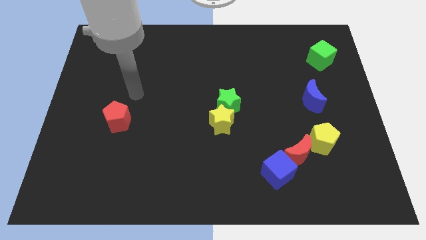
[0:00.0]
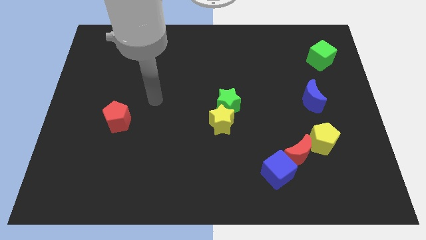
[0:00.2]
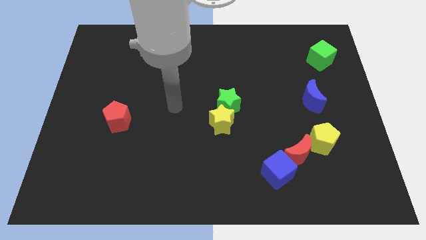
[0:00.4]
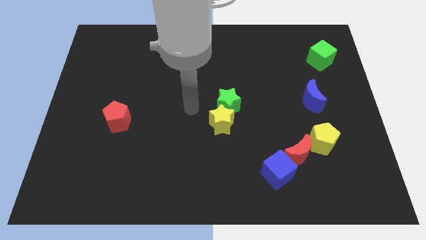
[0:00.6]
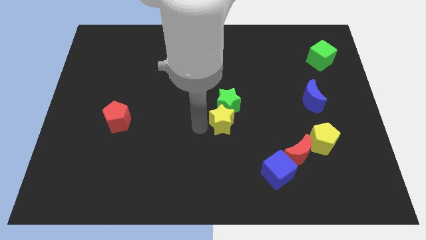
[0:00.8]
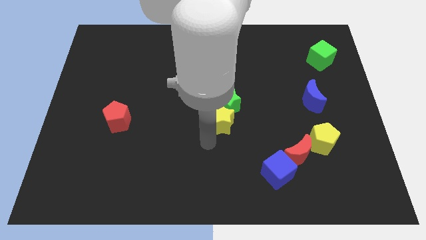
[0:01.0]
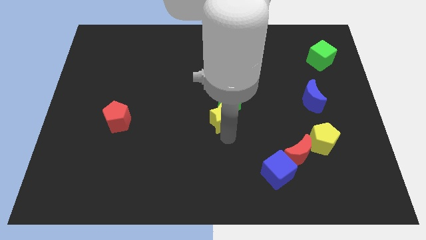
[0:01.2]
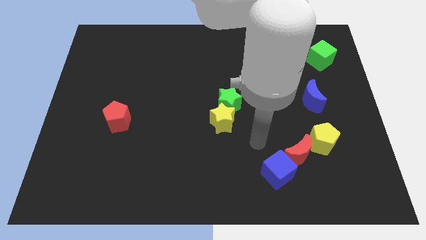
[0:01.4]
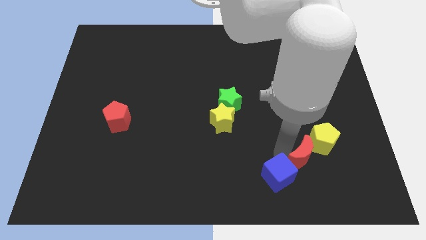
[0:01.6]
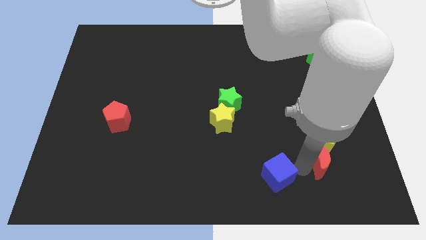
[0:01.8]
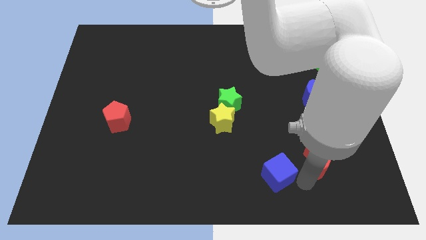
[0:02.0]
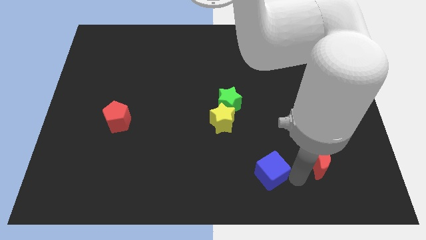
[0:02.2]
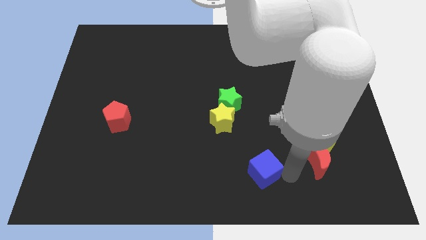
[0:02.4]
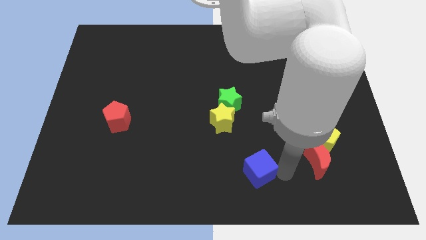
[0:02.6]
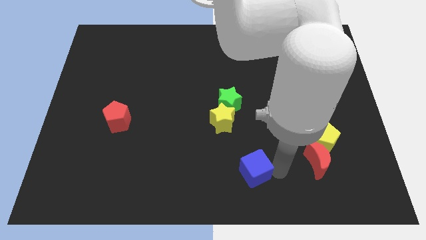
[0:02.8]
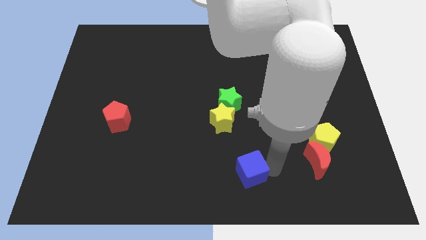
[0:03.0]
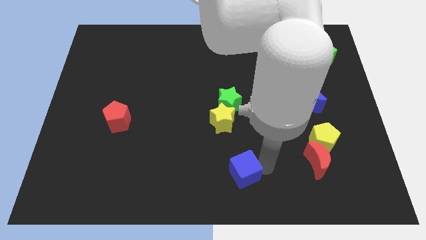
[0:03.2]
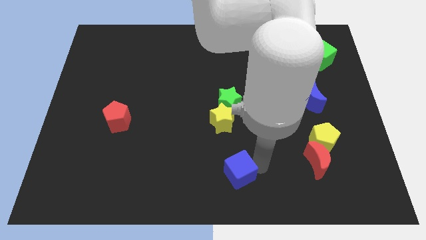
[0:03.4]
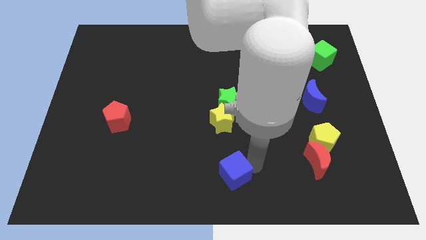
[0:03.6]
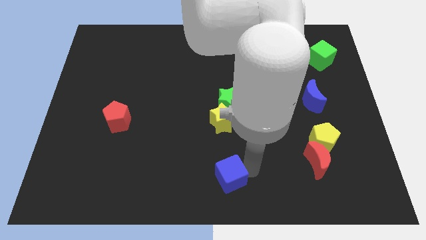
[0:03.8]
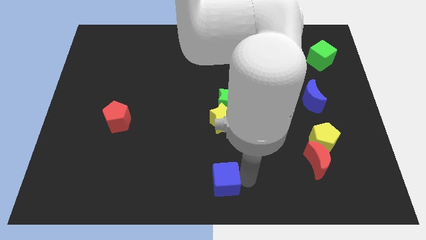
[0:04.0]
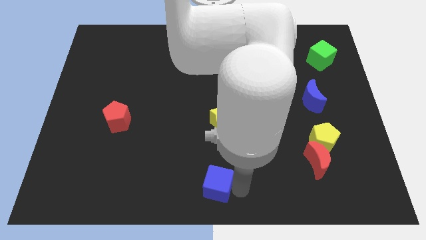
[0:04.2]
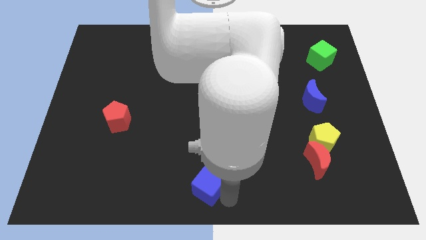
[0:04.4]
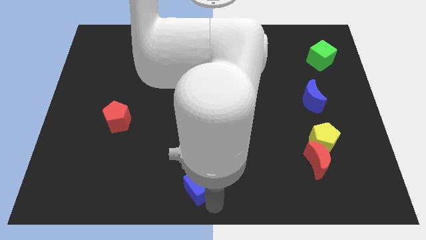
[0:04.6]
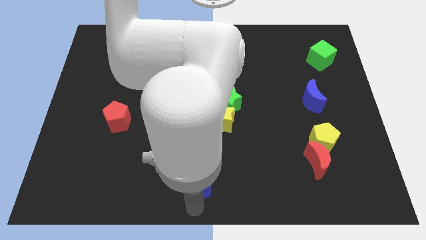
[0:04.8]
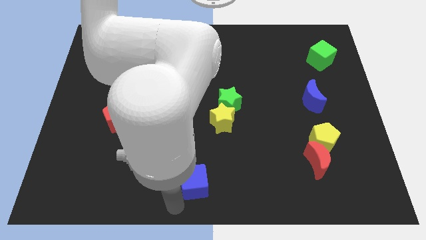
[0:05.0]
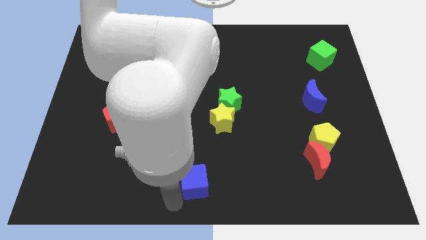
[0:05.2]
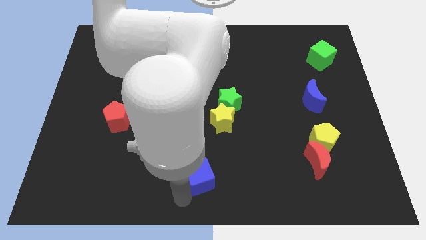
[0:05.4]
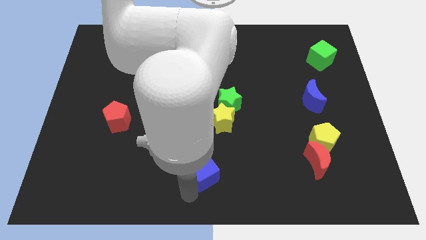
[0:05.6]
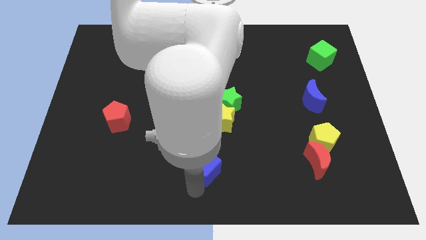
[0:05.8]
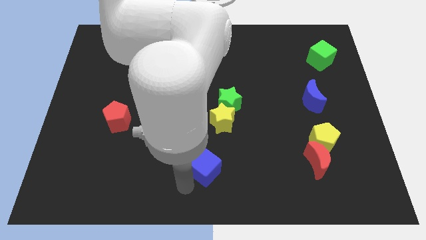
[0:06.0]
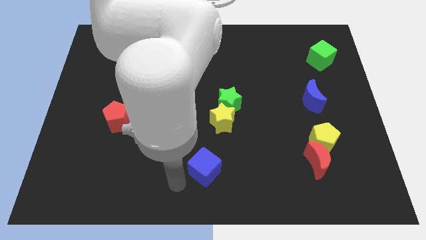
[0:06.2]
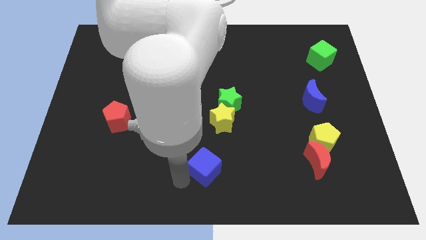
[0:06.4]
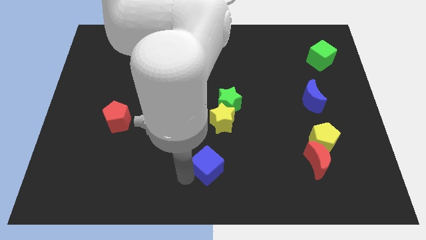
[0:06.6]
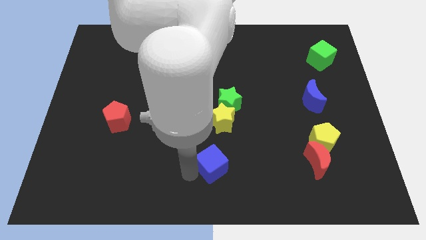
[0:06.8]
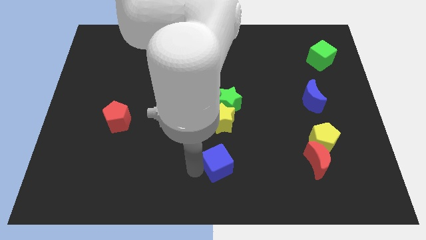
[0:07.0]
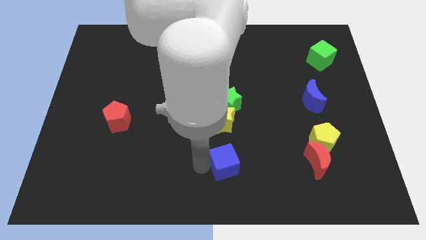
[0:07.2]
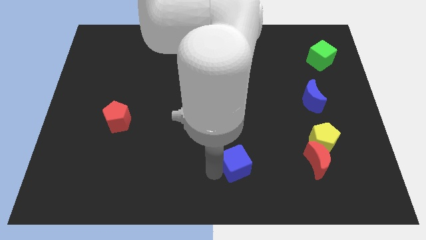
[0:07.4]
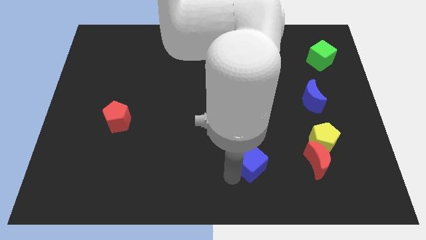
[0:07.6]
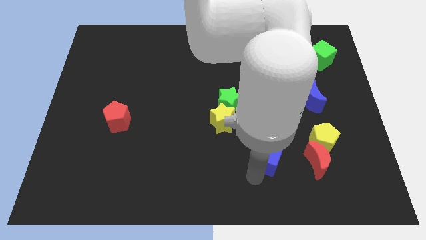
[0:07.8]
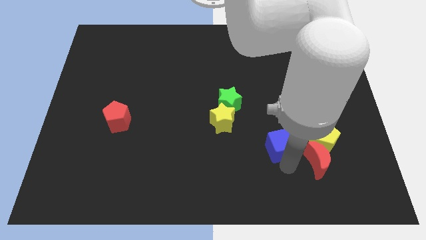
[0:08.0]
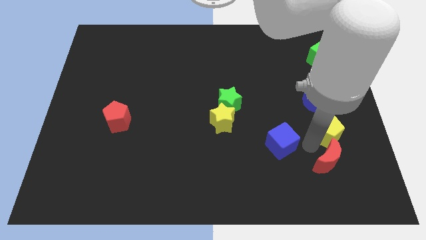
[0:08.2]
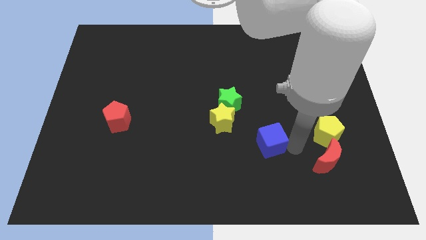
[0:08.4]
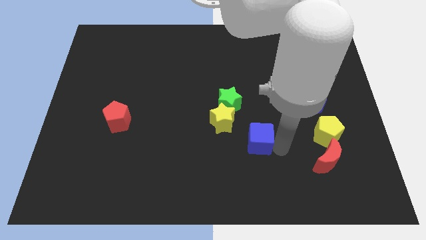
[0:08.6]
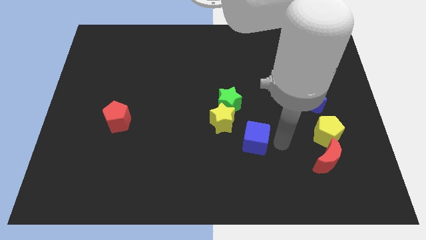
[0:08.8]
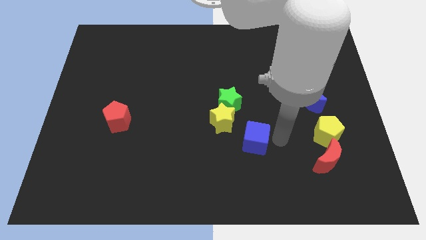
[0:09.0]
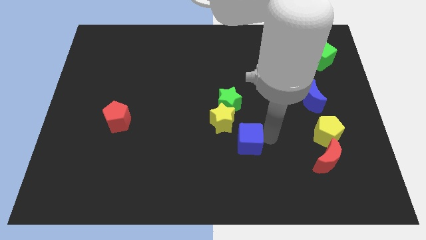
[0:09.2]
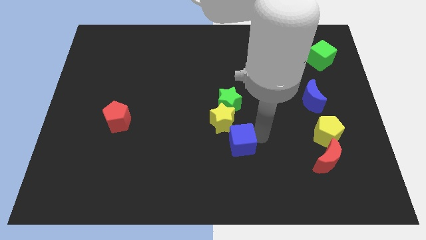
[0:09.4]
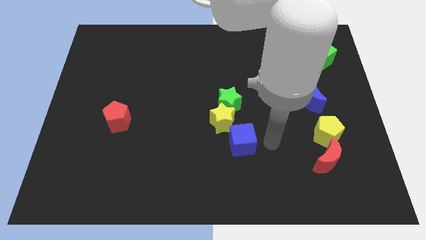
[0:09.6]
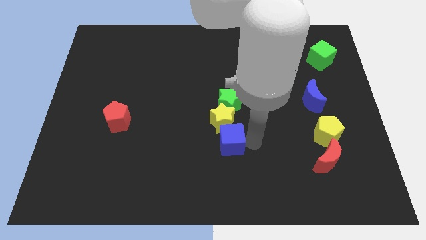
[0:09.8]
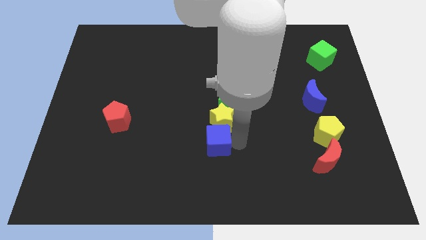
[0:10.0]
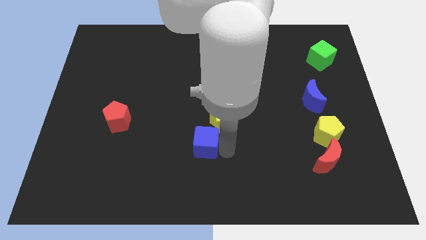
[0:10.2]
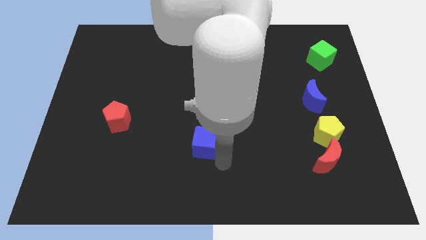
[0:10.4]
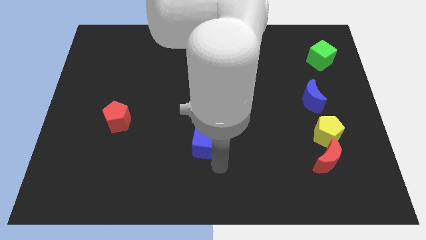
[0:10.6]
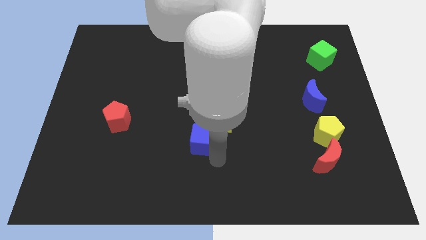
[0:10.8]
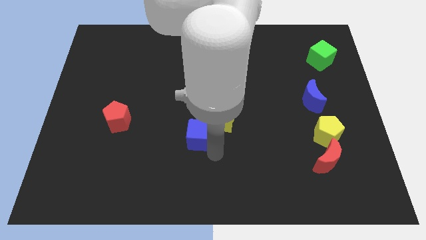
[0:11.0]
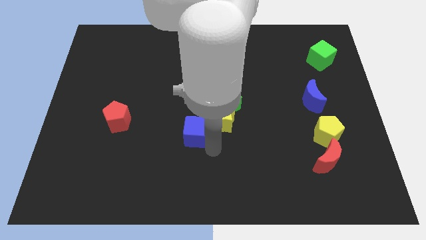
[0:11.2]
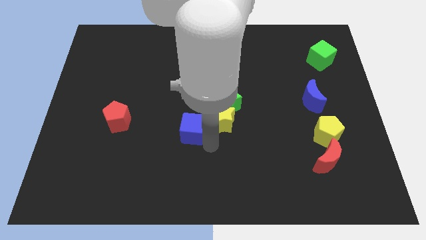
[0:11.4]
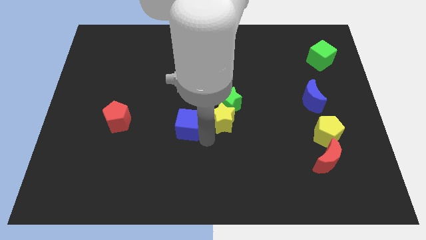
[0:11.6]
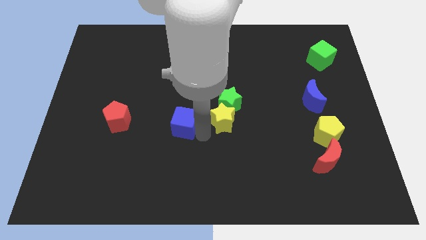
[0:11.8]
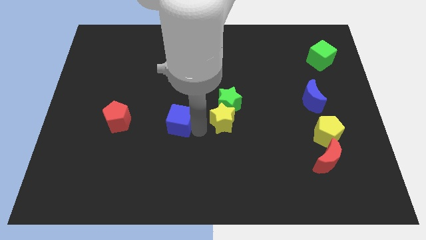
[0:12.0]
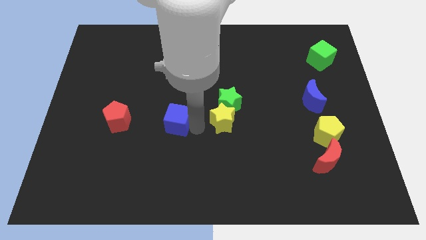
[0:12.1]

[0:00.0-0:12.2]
move the blue cube to the left of the green star

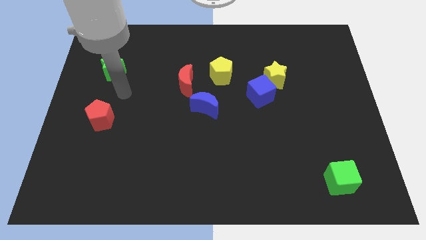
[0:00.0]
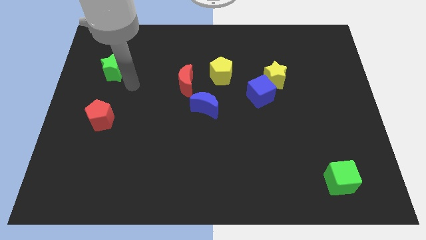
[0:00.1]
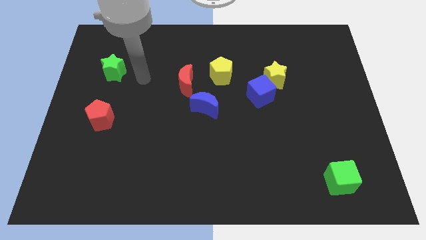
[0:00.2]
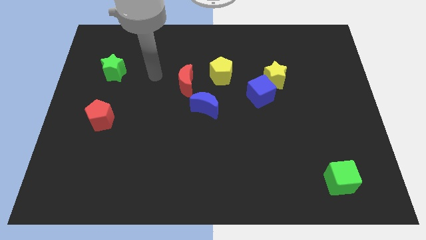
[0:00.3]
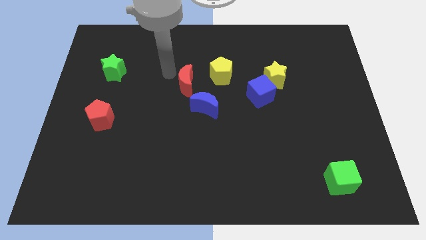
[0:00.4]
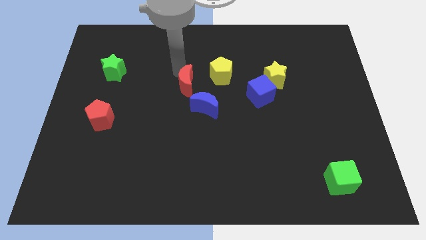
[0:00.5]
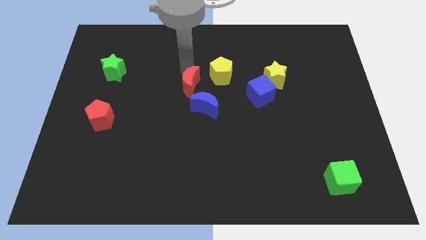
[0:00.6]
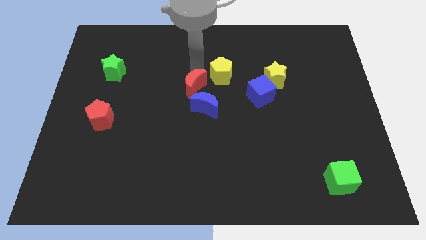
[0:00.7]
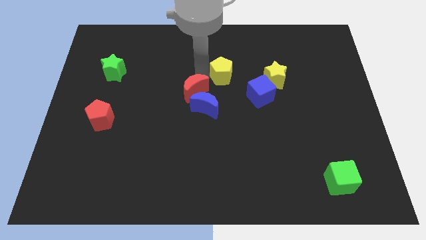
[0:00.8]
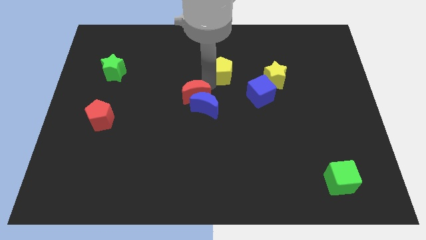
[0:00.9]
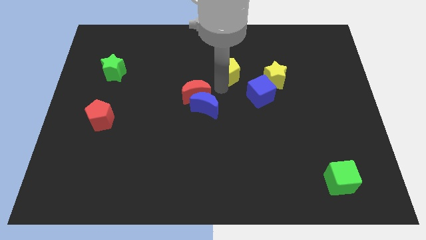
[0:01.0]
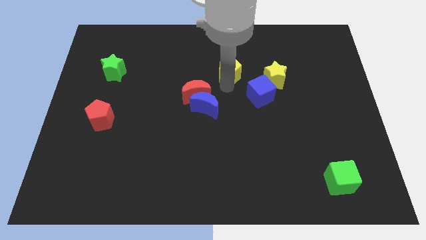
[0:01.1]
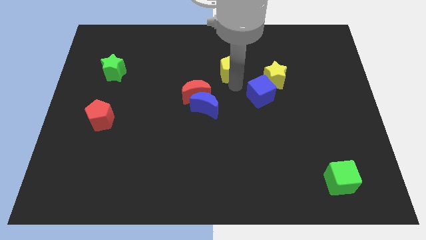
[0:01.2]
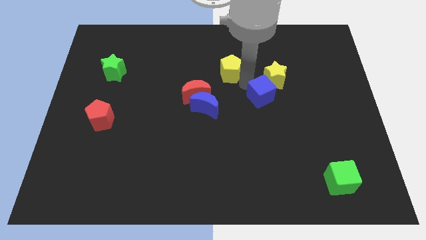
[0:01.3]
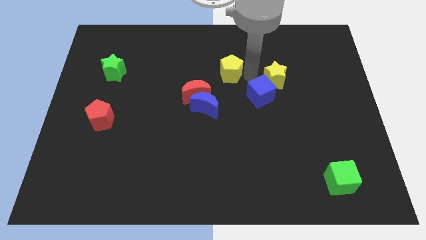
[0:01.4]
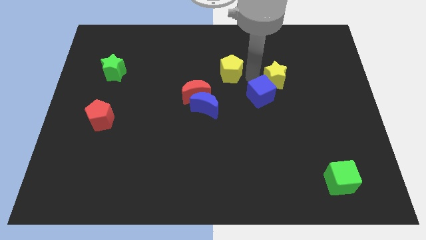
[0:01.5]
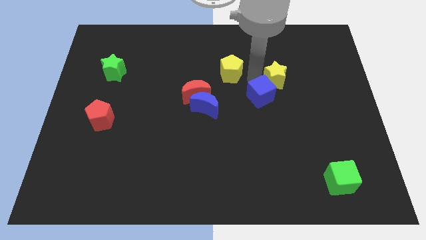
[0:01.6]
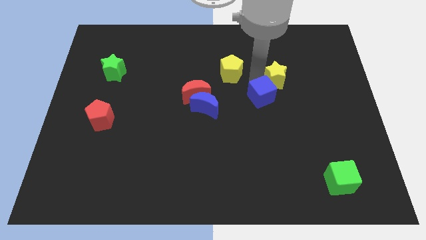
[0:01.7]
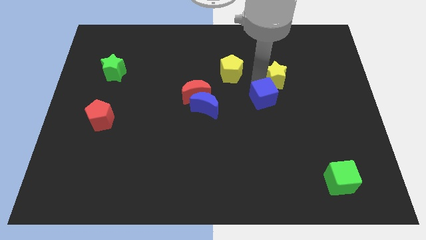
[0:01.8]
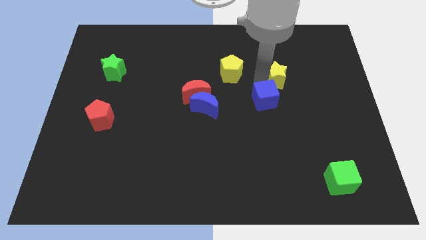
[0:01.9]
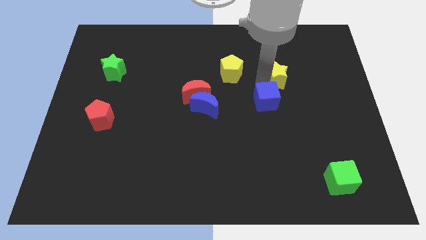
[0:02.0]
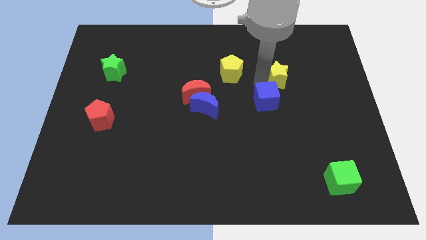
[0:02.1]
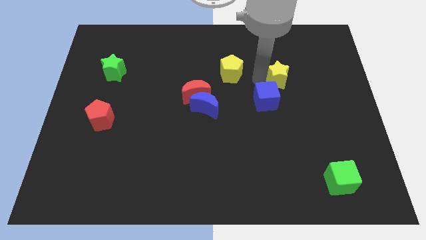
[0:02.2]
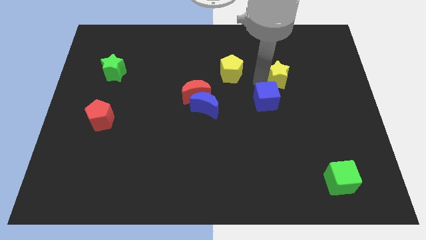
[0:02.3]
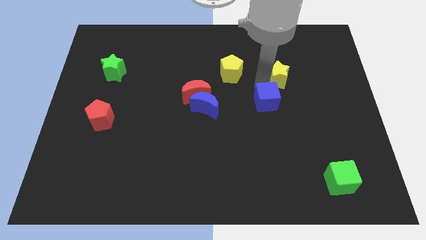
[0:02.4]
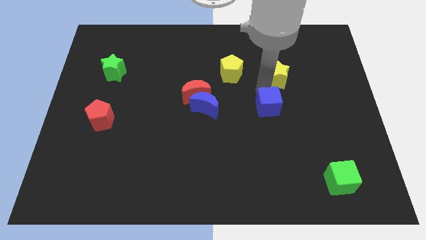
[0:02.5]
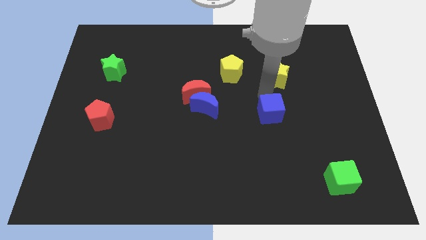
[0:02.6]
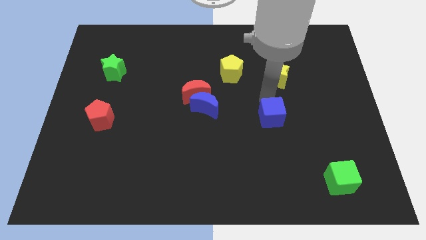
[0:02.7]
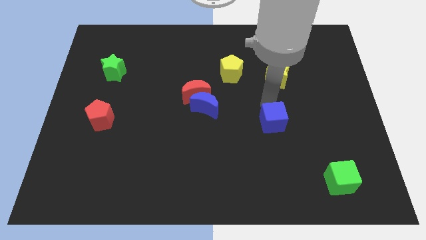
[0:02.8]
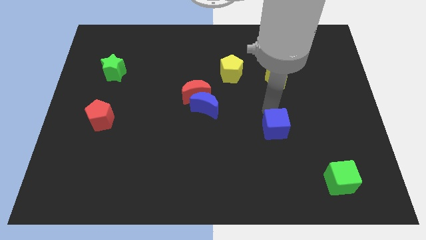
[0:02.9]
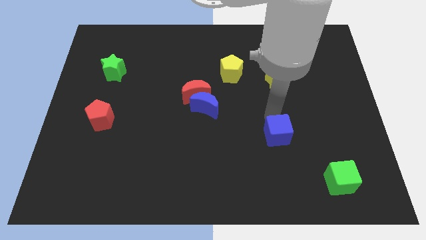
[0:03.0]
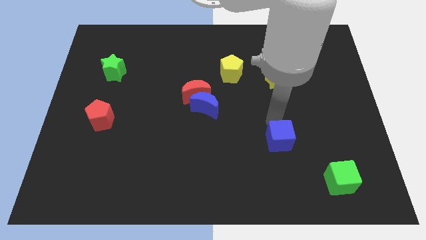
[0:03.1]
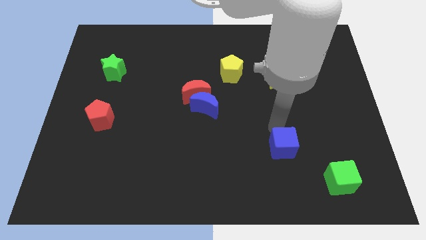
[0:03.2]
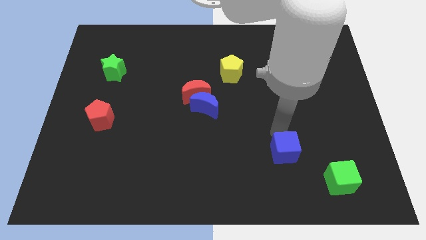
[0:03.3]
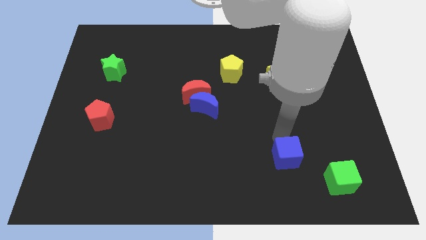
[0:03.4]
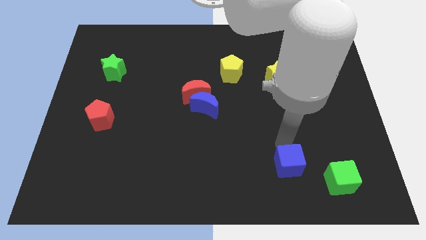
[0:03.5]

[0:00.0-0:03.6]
move the blue cube just left of the green cube
